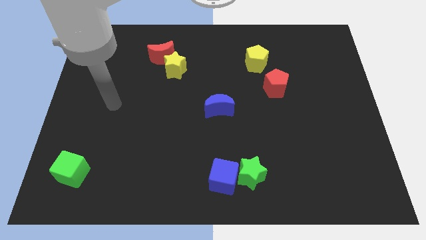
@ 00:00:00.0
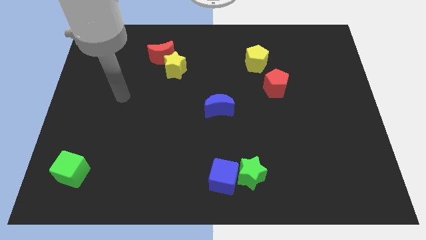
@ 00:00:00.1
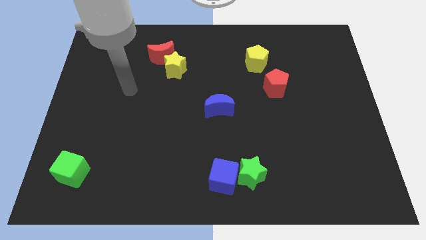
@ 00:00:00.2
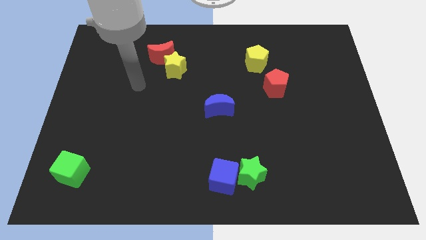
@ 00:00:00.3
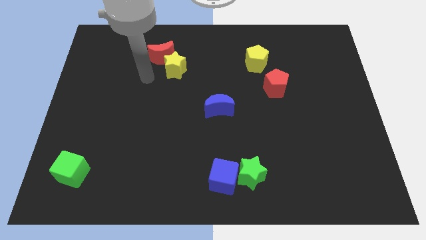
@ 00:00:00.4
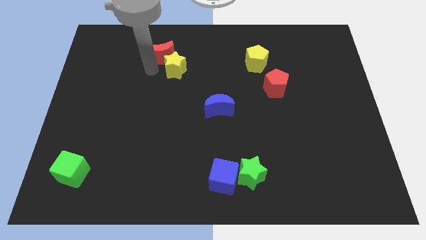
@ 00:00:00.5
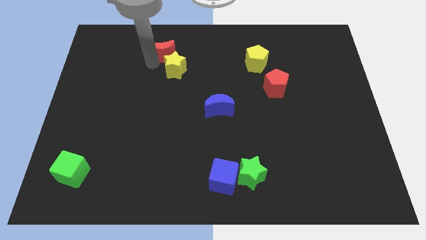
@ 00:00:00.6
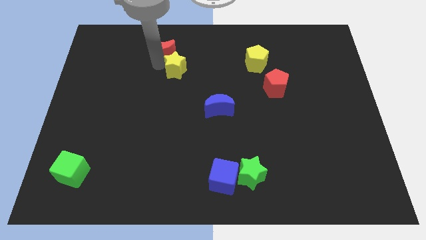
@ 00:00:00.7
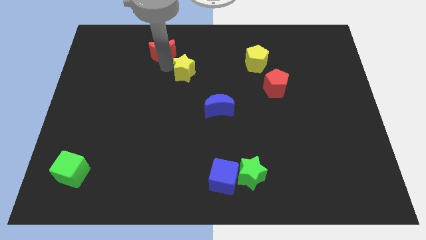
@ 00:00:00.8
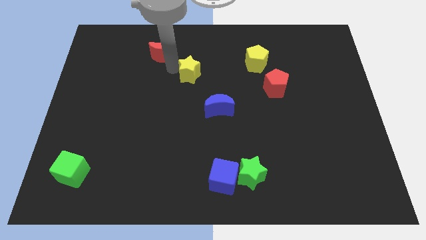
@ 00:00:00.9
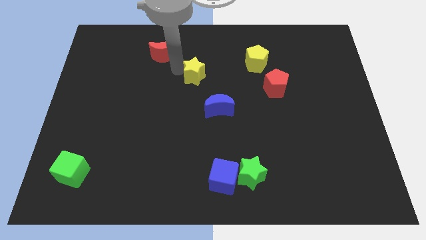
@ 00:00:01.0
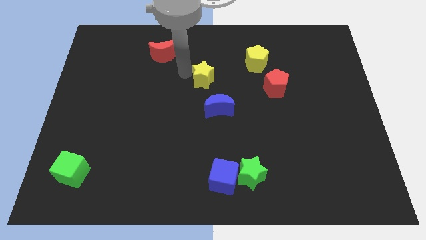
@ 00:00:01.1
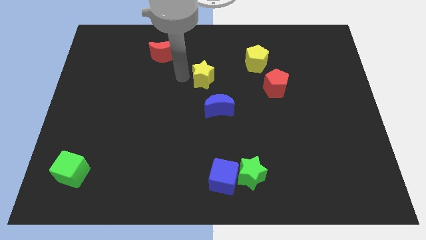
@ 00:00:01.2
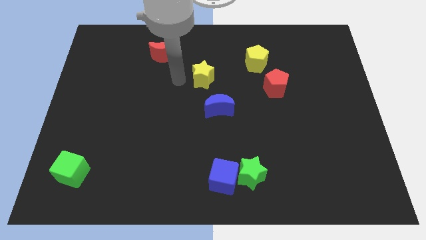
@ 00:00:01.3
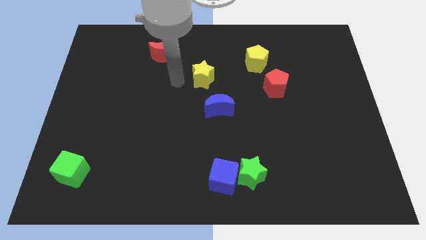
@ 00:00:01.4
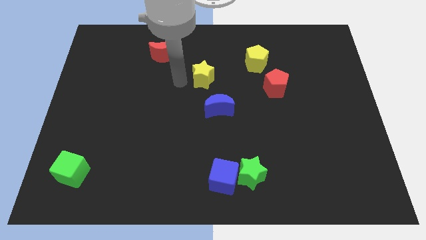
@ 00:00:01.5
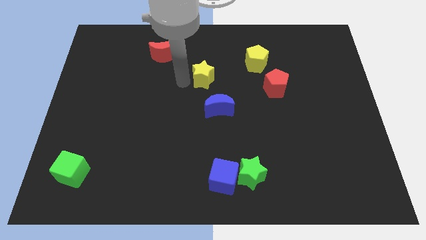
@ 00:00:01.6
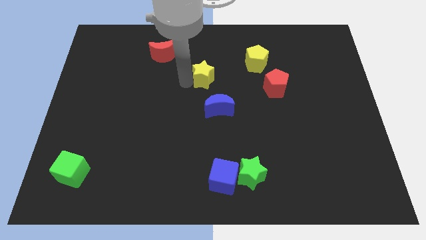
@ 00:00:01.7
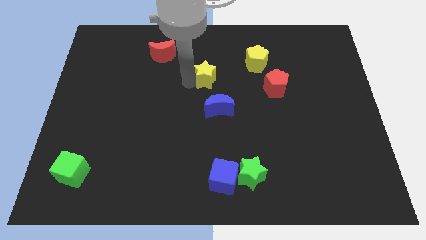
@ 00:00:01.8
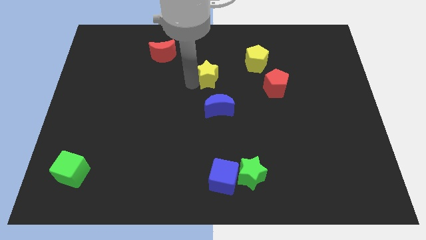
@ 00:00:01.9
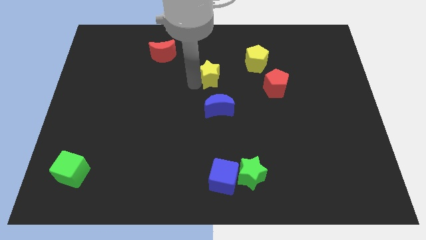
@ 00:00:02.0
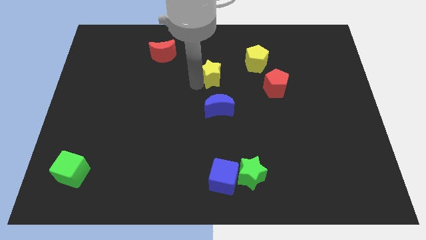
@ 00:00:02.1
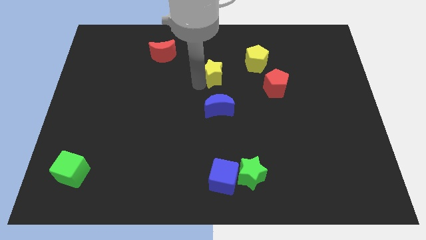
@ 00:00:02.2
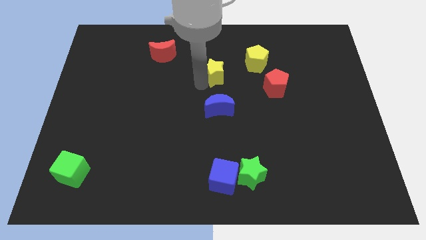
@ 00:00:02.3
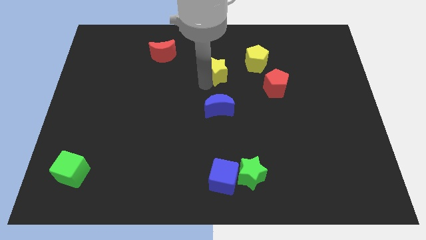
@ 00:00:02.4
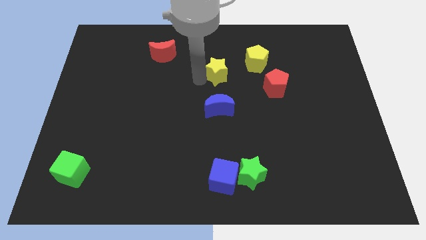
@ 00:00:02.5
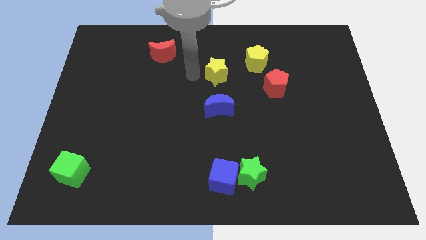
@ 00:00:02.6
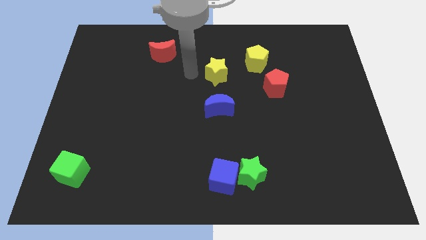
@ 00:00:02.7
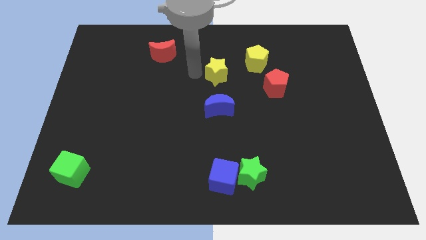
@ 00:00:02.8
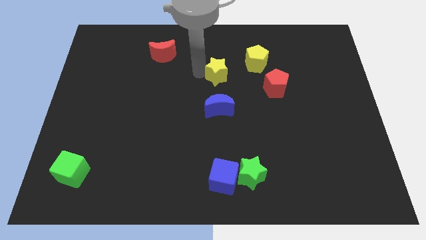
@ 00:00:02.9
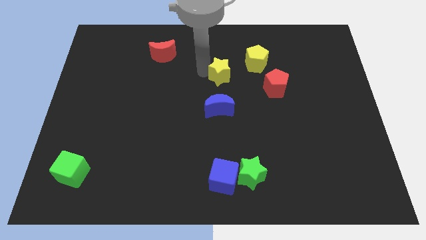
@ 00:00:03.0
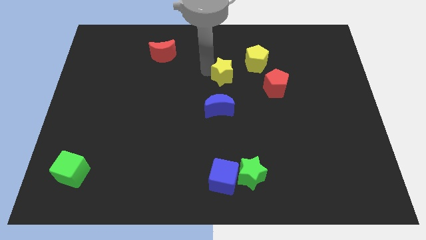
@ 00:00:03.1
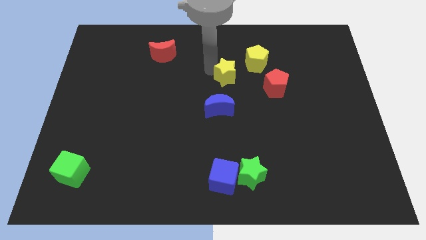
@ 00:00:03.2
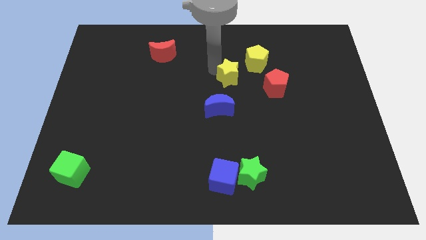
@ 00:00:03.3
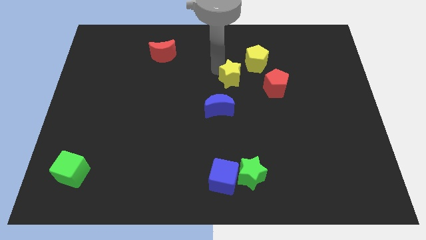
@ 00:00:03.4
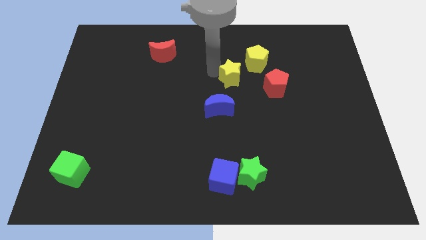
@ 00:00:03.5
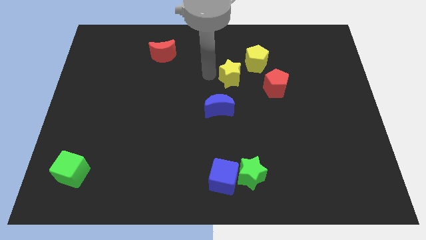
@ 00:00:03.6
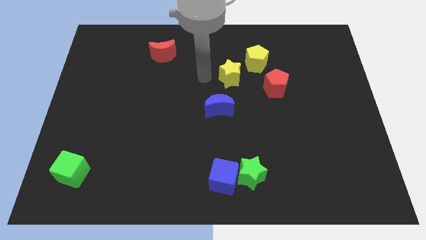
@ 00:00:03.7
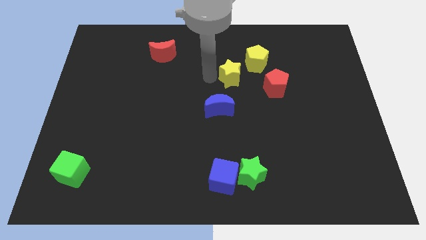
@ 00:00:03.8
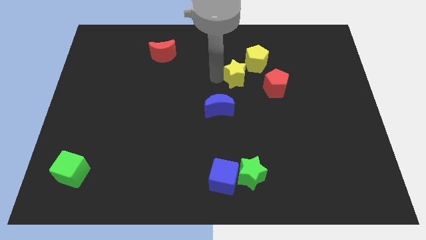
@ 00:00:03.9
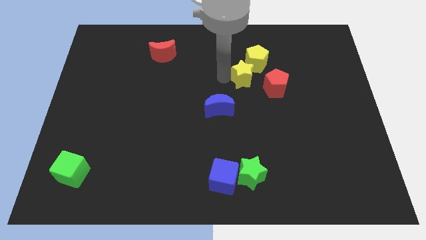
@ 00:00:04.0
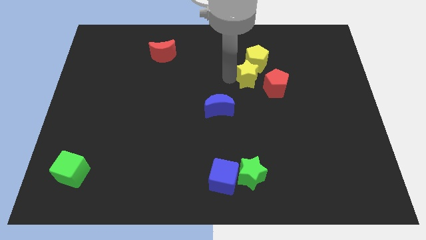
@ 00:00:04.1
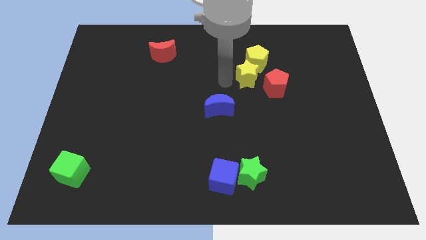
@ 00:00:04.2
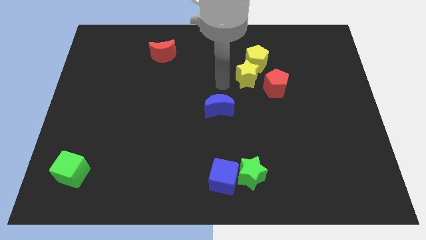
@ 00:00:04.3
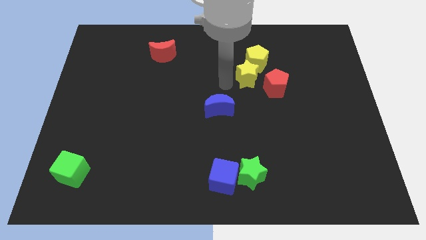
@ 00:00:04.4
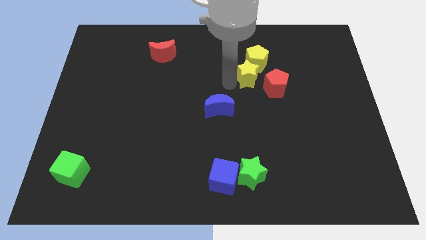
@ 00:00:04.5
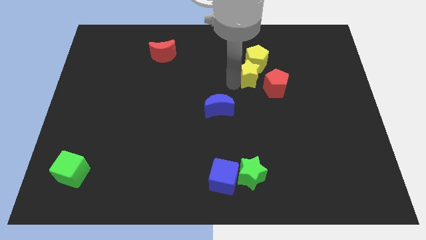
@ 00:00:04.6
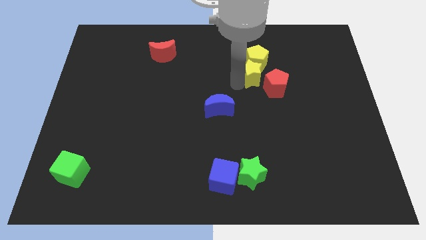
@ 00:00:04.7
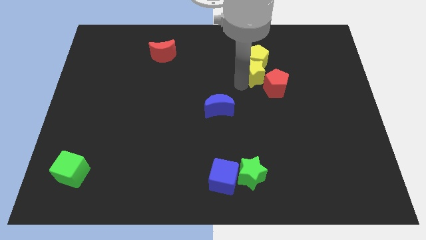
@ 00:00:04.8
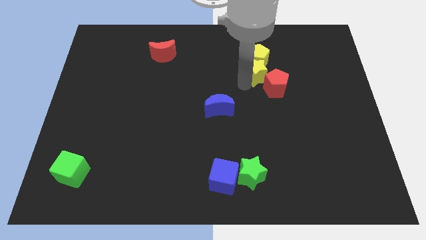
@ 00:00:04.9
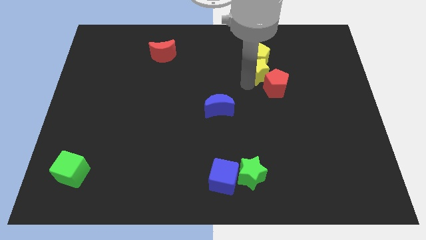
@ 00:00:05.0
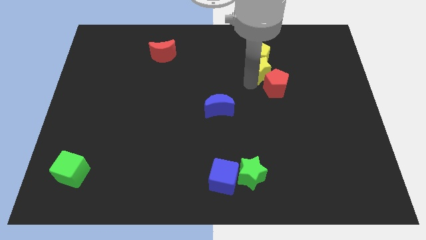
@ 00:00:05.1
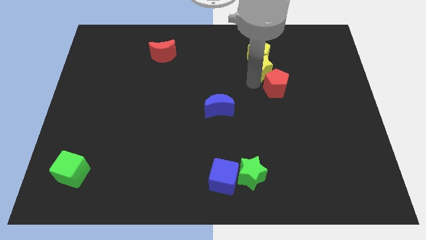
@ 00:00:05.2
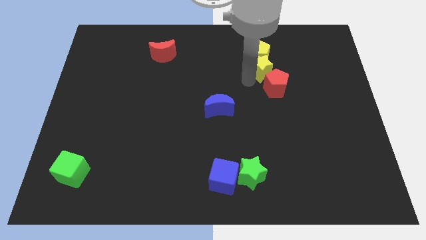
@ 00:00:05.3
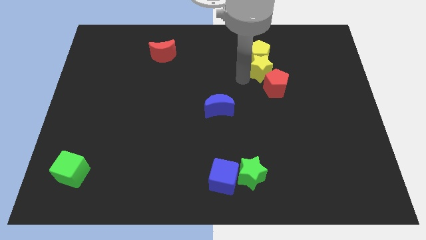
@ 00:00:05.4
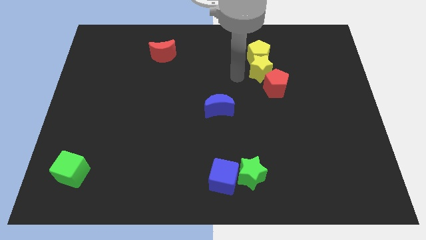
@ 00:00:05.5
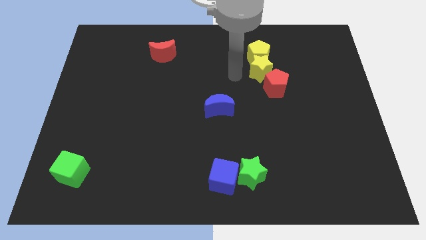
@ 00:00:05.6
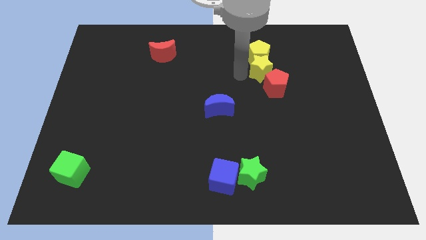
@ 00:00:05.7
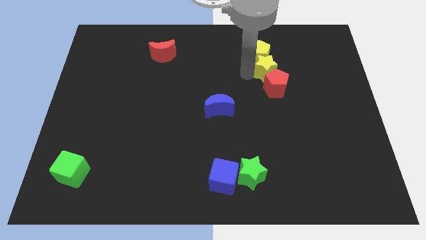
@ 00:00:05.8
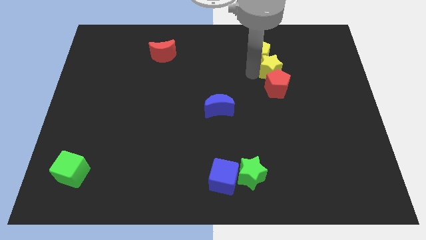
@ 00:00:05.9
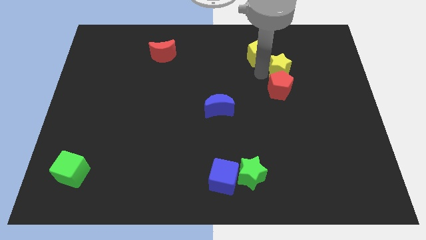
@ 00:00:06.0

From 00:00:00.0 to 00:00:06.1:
slide the yellow star to the right of the yellow pentagon

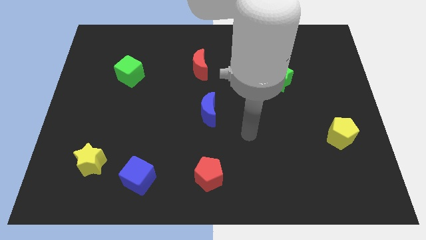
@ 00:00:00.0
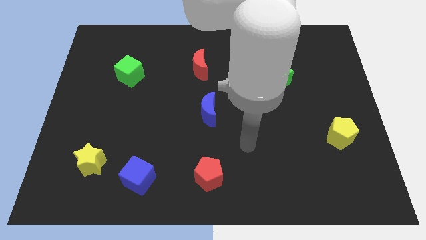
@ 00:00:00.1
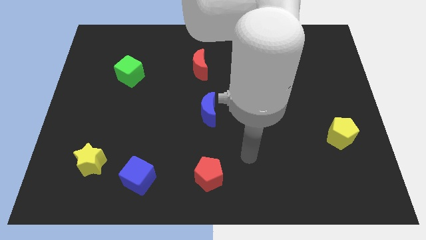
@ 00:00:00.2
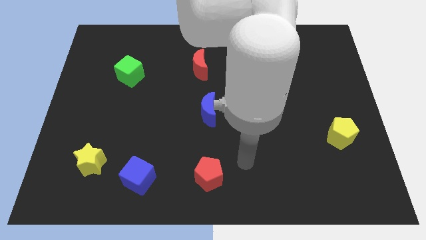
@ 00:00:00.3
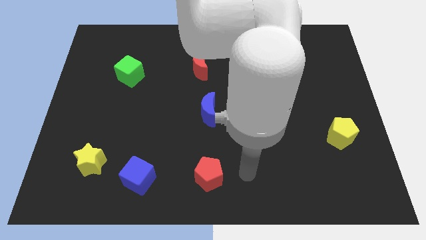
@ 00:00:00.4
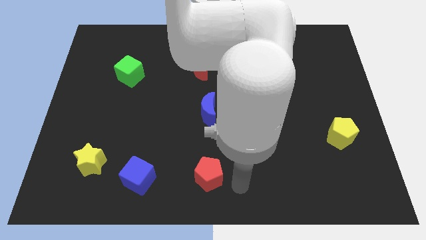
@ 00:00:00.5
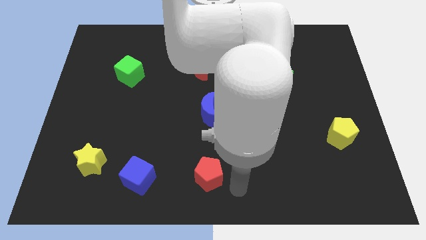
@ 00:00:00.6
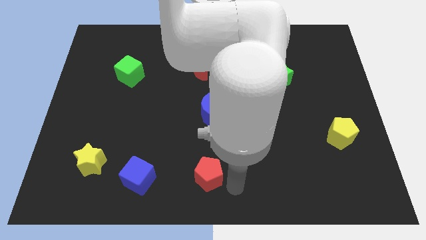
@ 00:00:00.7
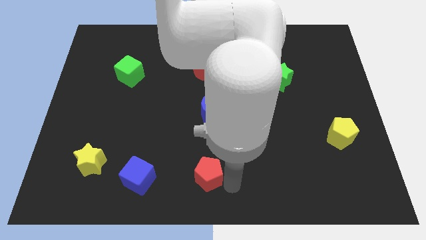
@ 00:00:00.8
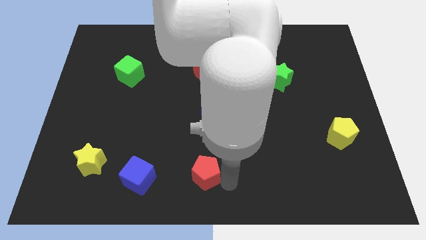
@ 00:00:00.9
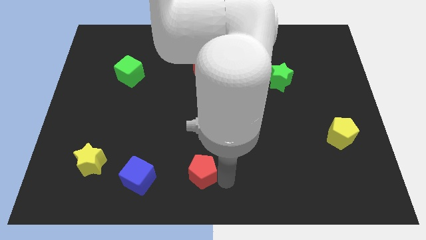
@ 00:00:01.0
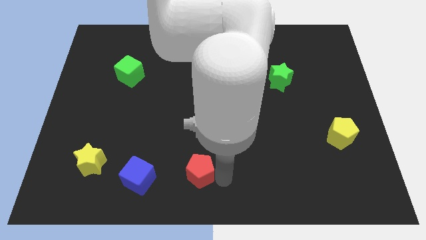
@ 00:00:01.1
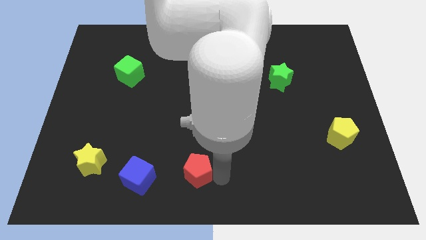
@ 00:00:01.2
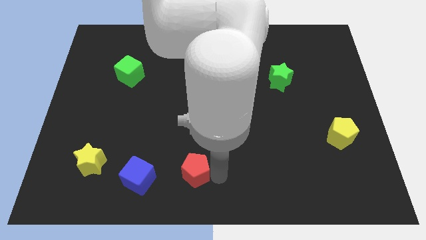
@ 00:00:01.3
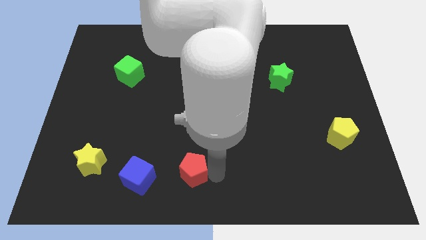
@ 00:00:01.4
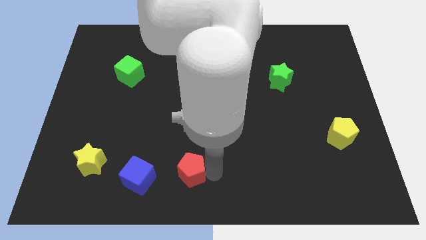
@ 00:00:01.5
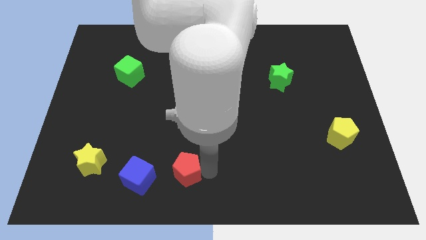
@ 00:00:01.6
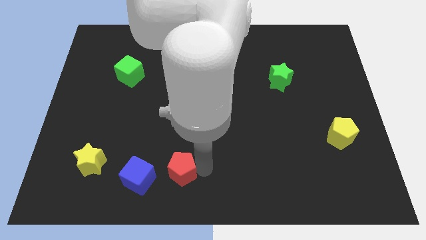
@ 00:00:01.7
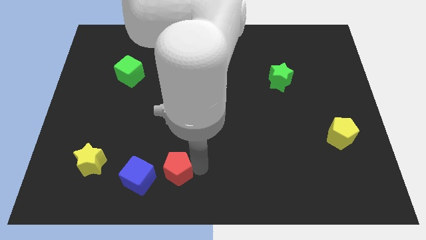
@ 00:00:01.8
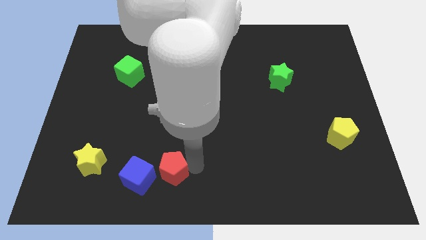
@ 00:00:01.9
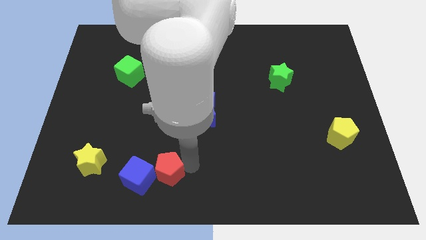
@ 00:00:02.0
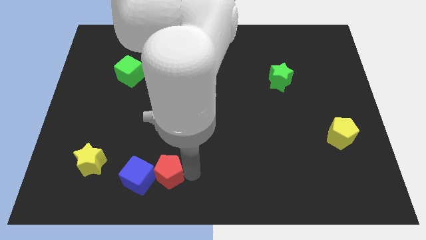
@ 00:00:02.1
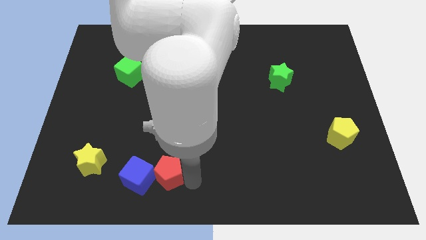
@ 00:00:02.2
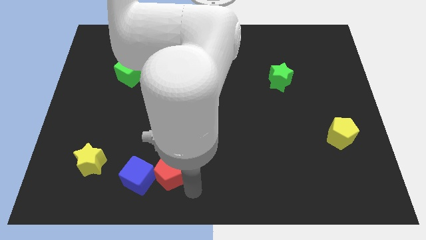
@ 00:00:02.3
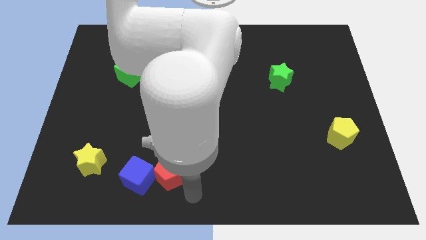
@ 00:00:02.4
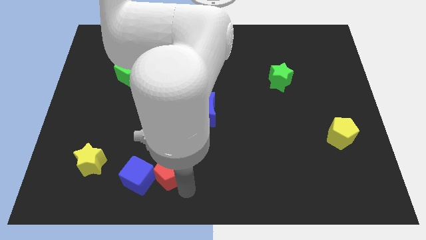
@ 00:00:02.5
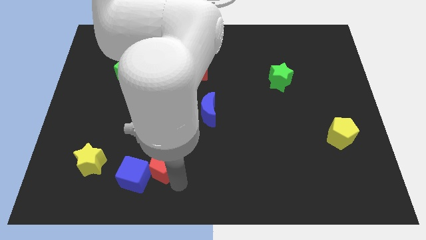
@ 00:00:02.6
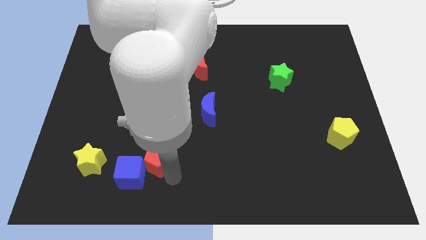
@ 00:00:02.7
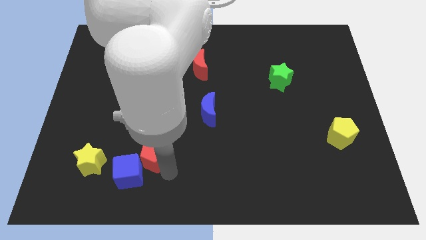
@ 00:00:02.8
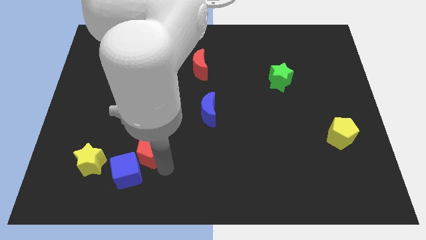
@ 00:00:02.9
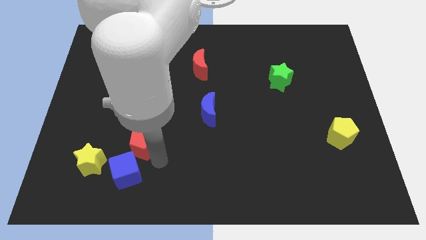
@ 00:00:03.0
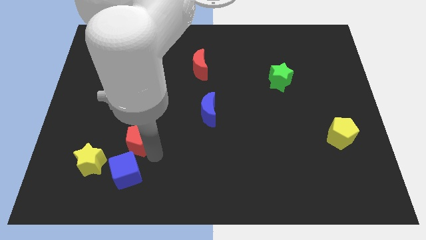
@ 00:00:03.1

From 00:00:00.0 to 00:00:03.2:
push the red pentagon to the top right of the yellow star
